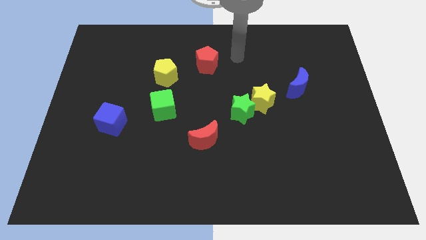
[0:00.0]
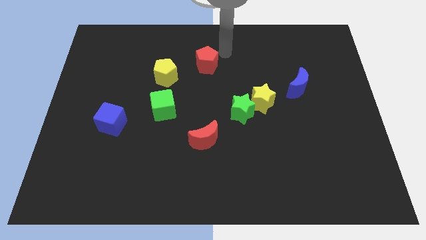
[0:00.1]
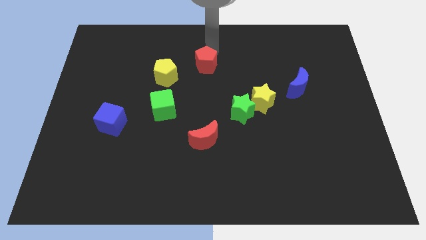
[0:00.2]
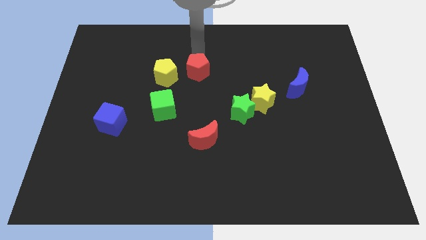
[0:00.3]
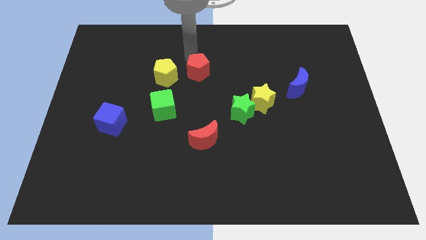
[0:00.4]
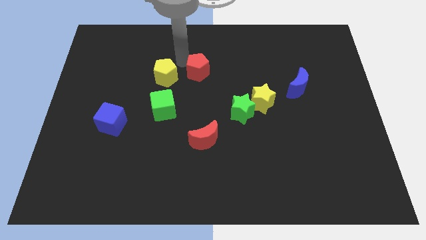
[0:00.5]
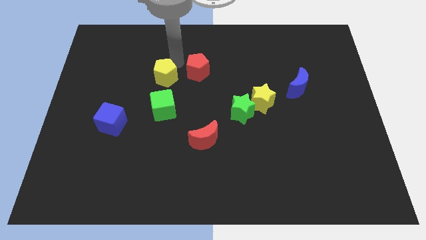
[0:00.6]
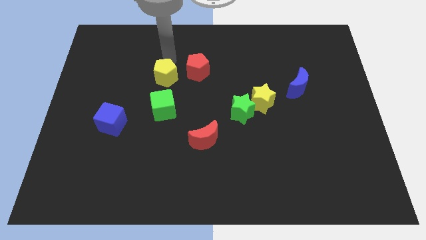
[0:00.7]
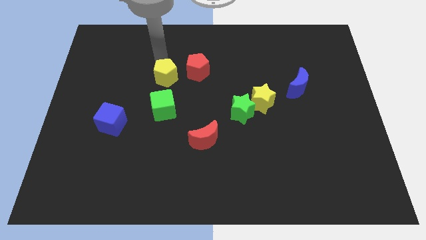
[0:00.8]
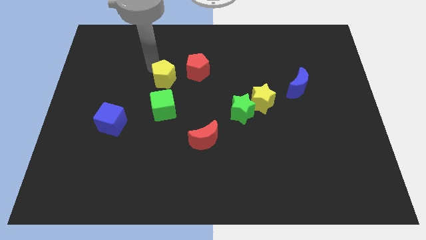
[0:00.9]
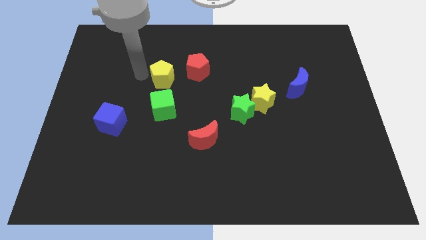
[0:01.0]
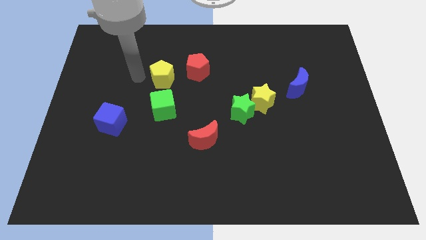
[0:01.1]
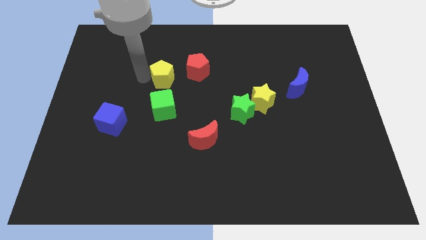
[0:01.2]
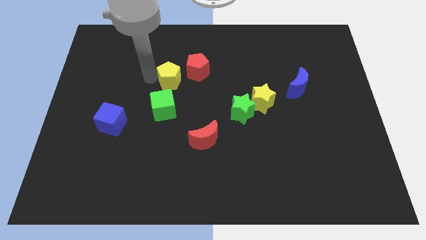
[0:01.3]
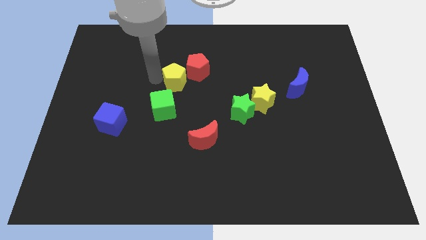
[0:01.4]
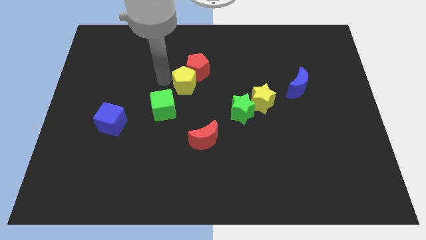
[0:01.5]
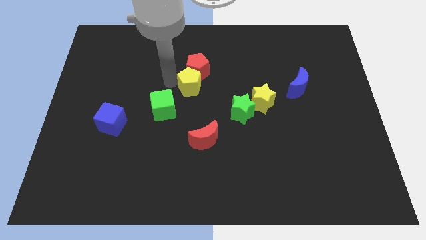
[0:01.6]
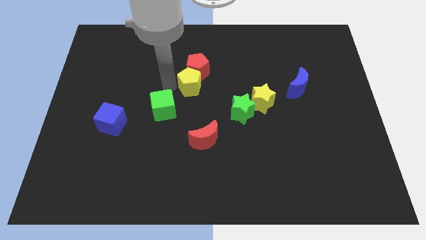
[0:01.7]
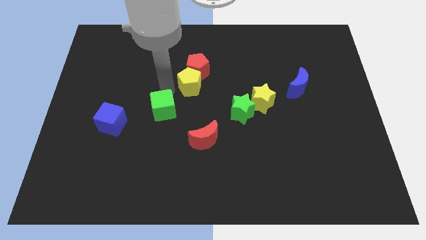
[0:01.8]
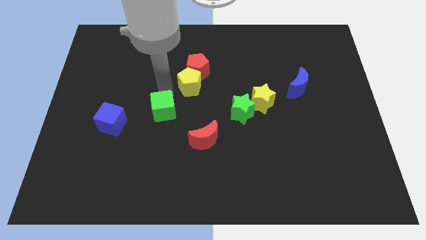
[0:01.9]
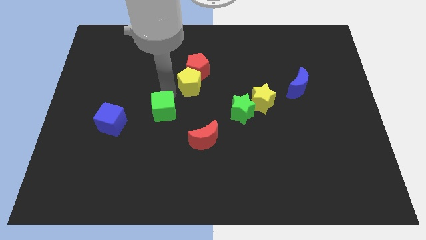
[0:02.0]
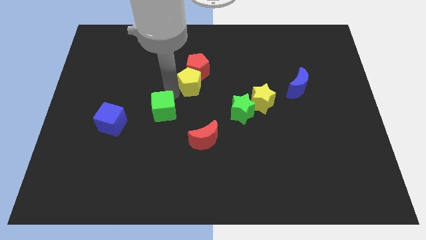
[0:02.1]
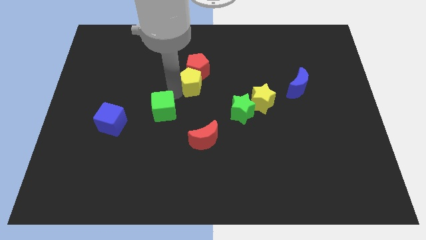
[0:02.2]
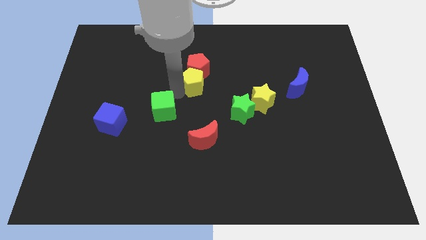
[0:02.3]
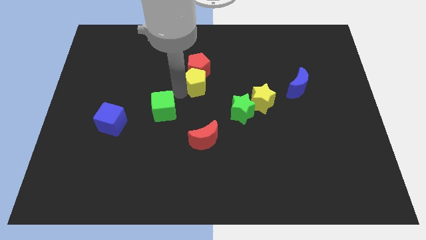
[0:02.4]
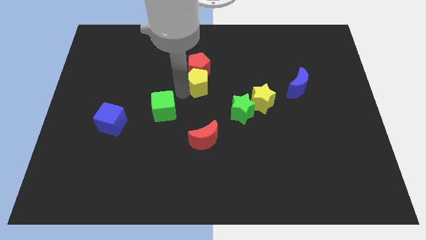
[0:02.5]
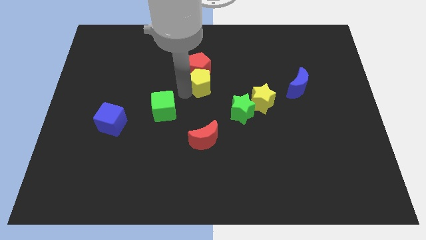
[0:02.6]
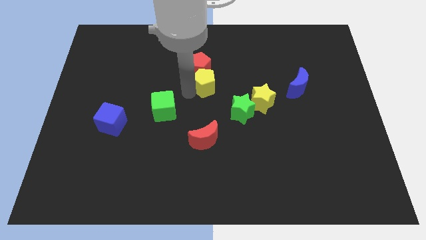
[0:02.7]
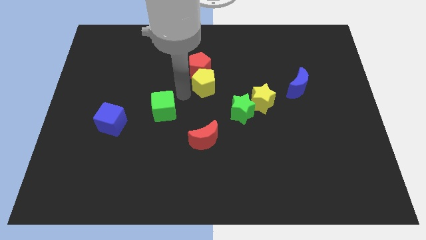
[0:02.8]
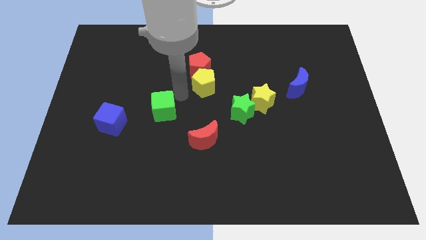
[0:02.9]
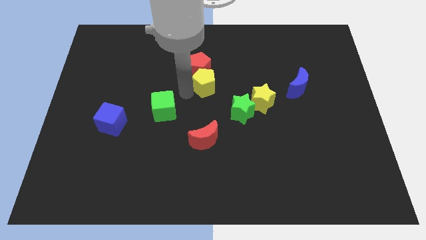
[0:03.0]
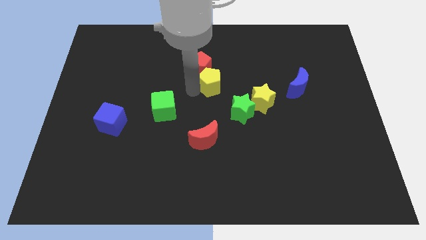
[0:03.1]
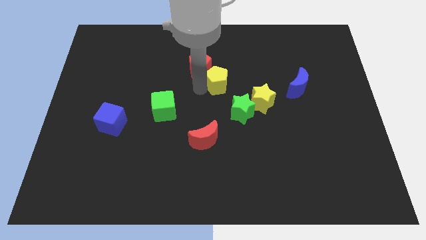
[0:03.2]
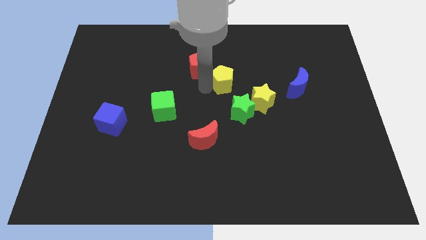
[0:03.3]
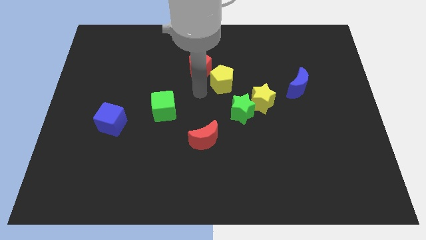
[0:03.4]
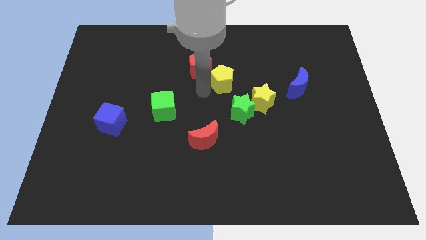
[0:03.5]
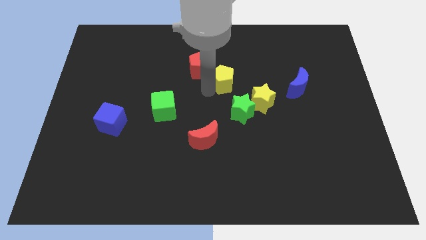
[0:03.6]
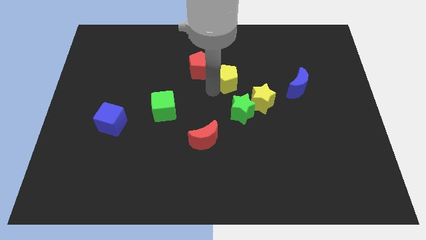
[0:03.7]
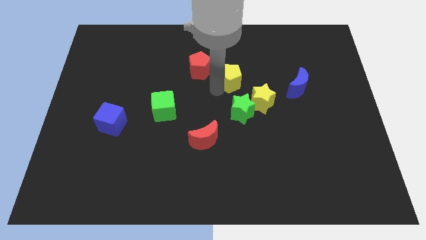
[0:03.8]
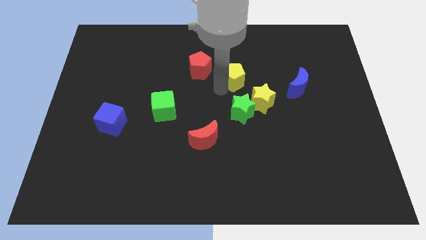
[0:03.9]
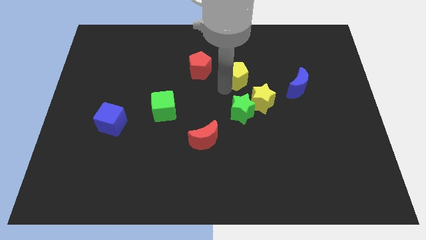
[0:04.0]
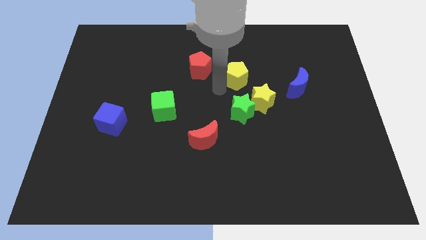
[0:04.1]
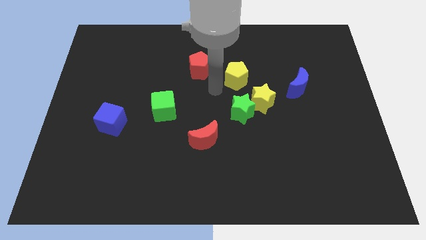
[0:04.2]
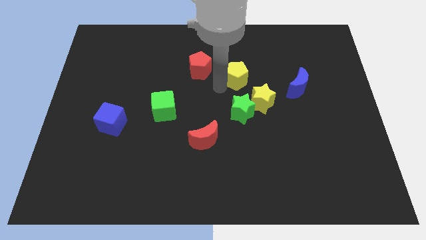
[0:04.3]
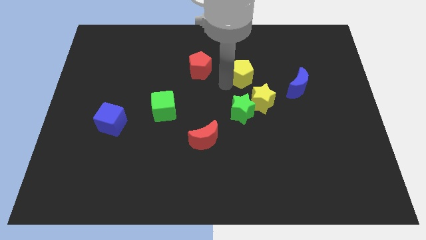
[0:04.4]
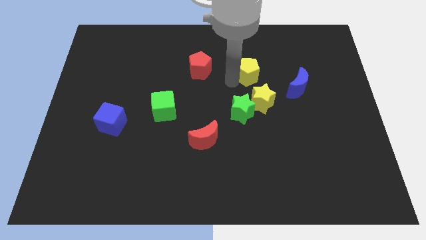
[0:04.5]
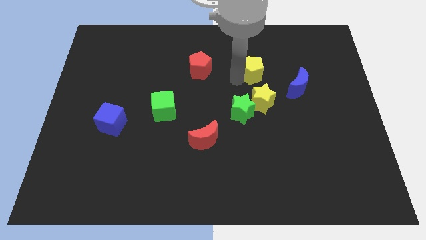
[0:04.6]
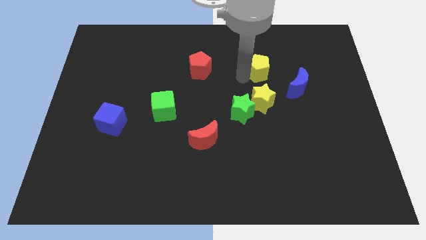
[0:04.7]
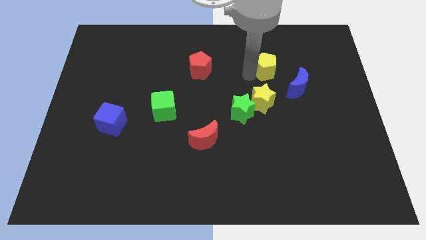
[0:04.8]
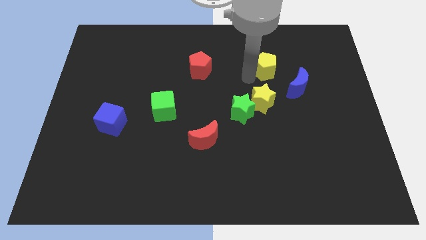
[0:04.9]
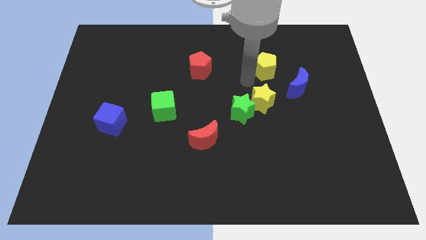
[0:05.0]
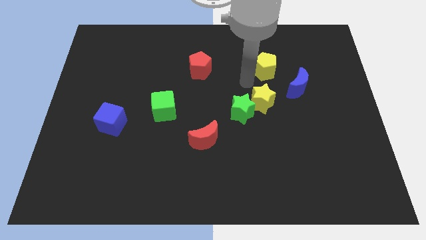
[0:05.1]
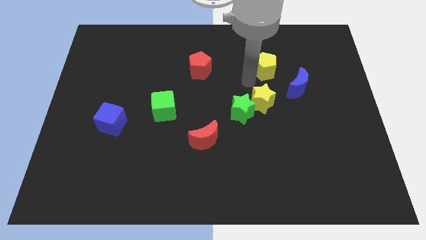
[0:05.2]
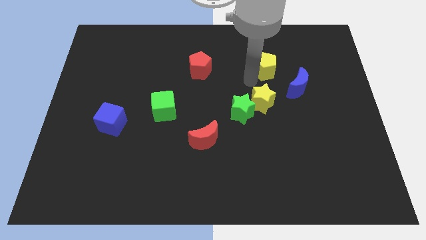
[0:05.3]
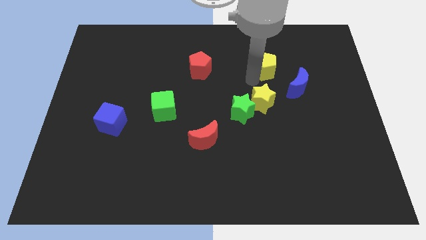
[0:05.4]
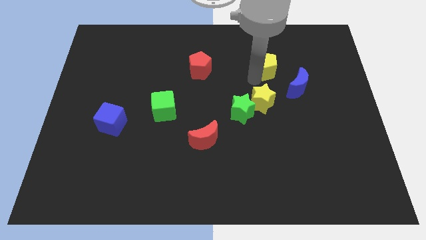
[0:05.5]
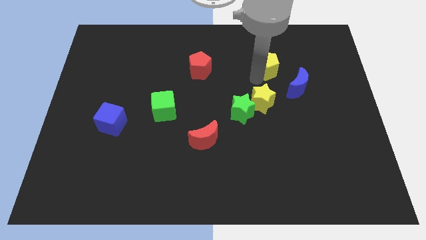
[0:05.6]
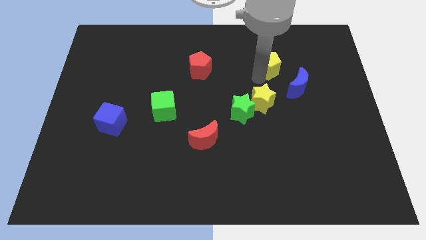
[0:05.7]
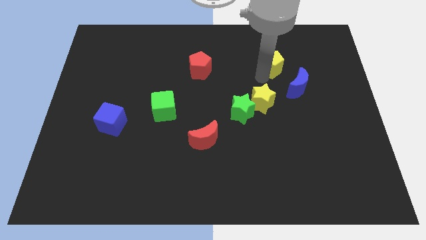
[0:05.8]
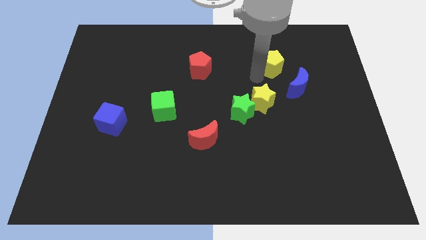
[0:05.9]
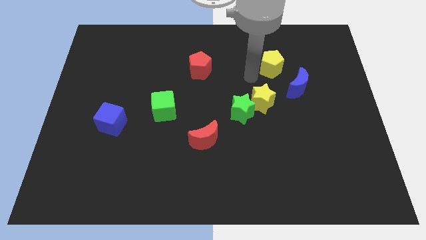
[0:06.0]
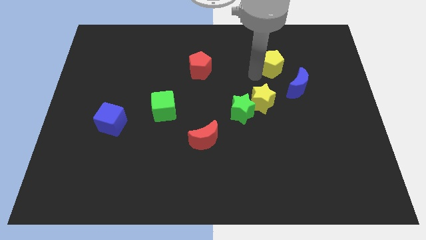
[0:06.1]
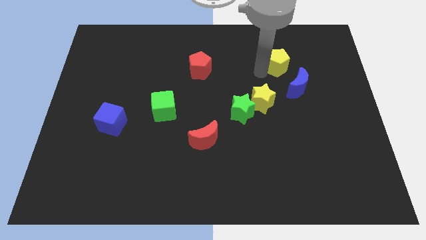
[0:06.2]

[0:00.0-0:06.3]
move the yellow pentagon to the top of the blue moon
